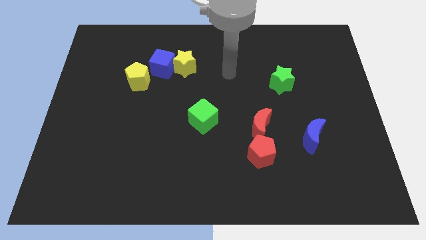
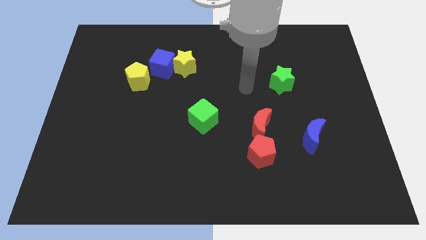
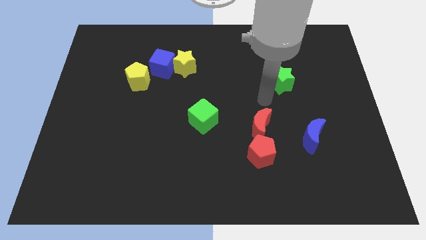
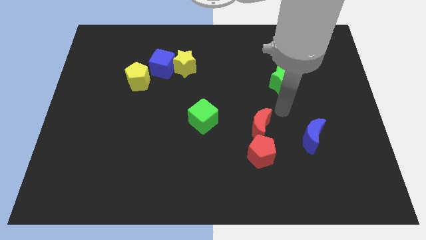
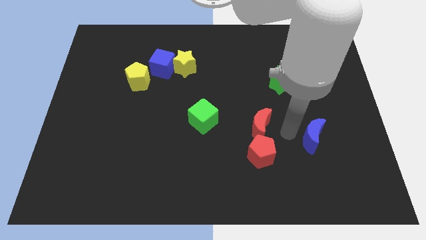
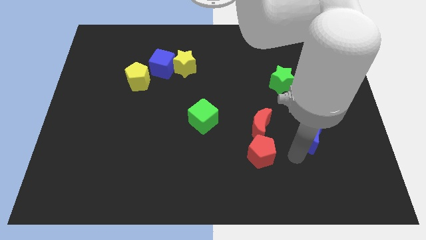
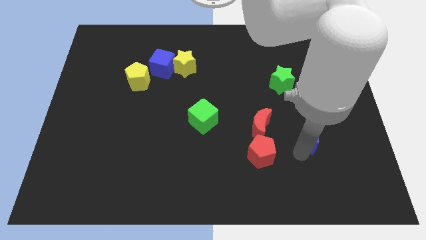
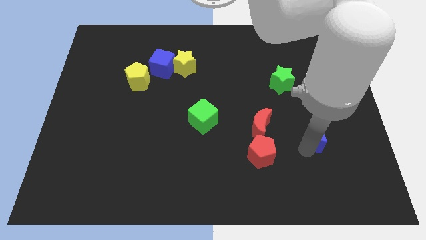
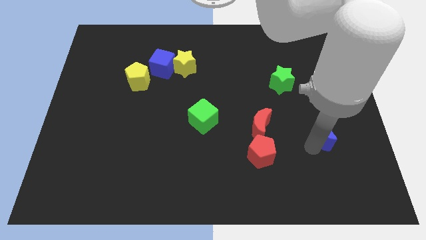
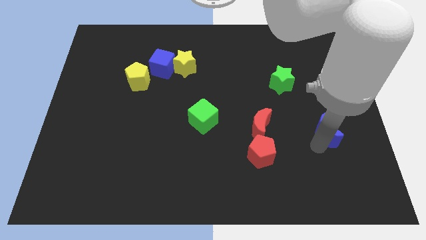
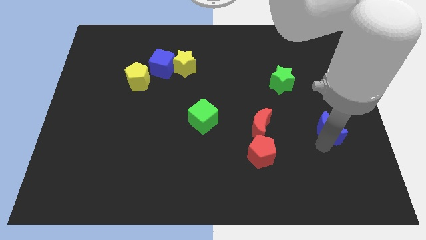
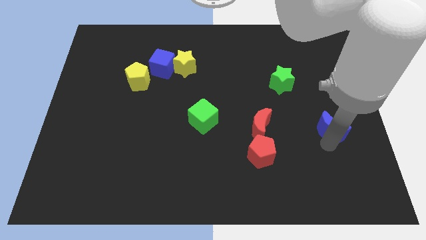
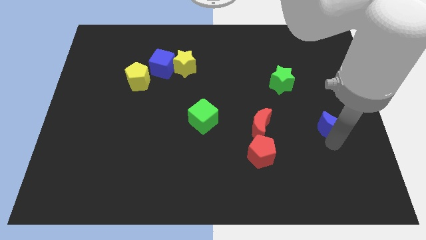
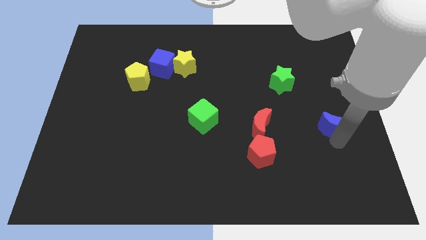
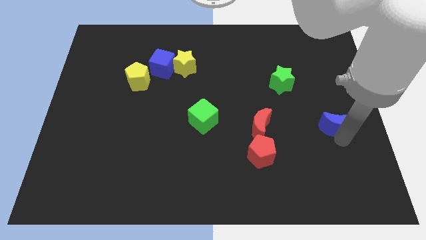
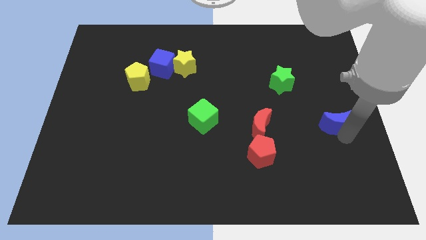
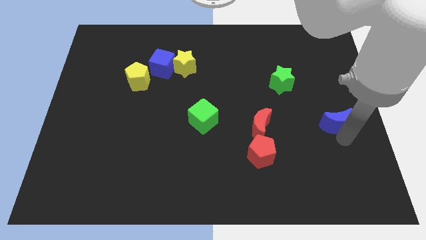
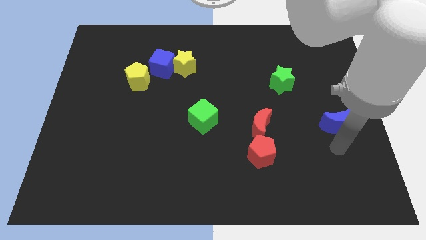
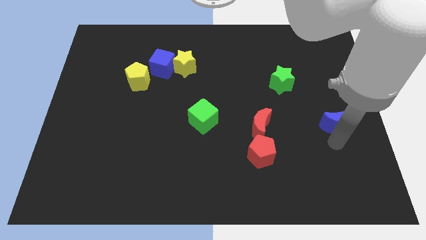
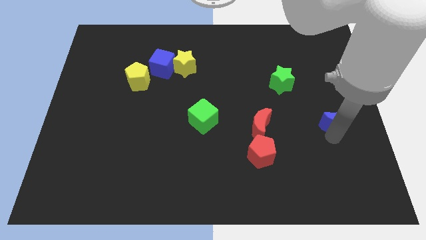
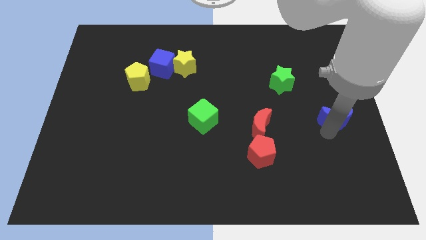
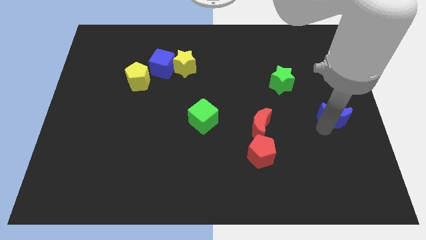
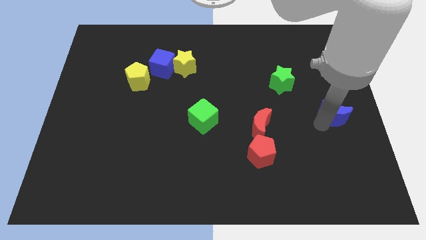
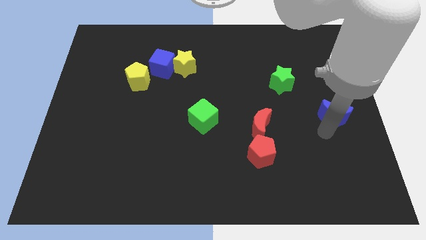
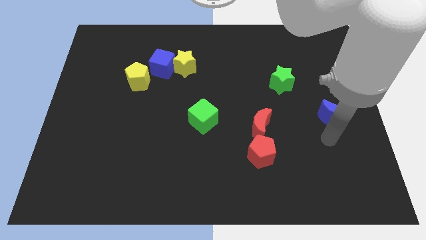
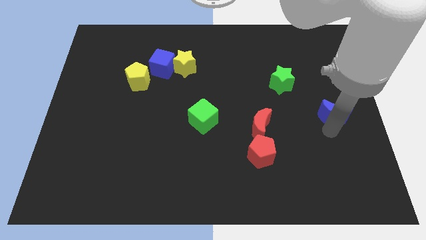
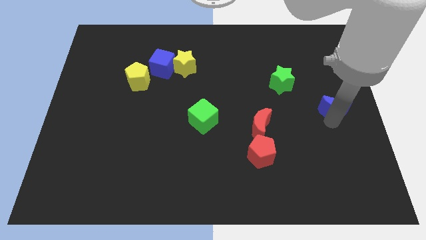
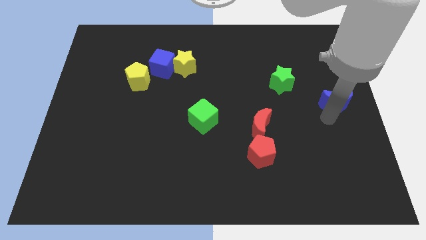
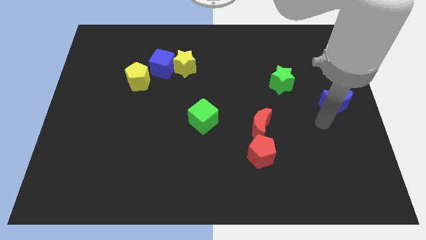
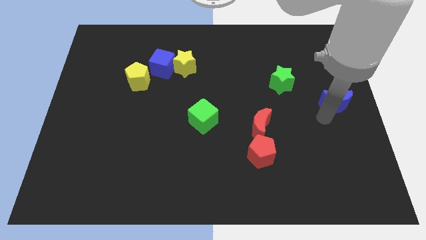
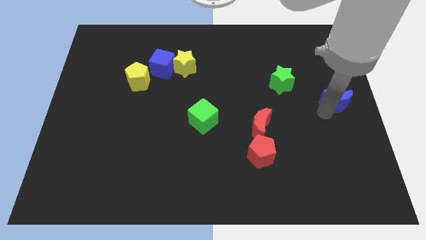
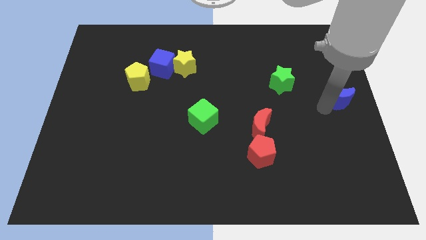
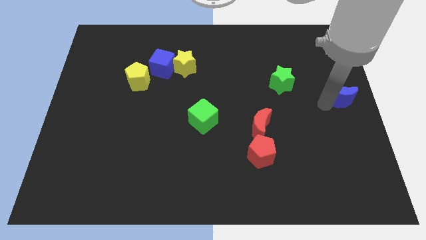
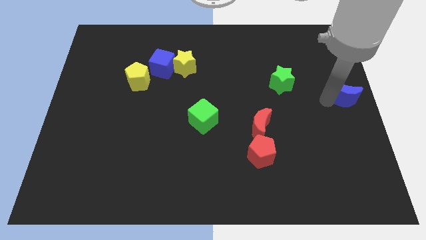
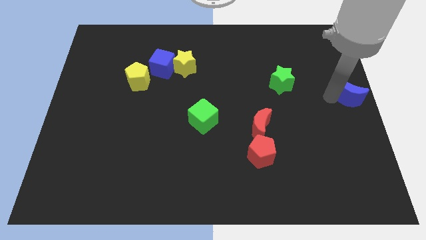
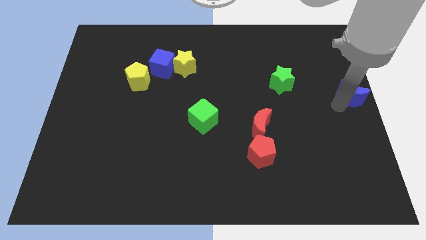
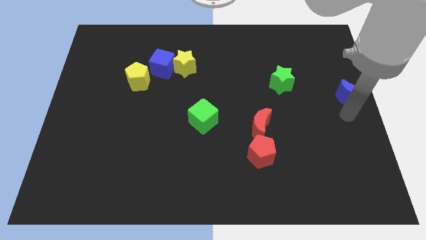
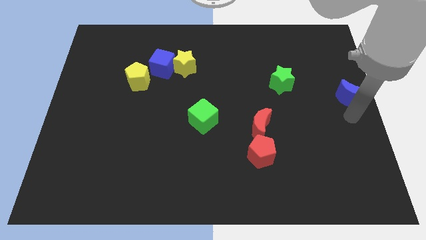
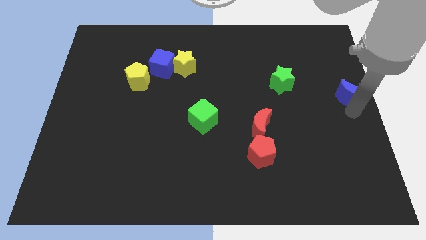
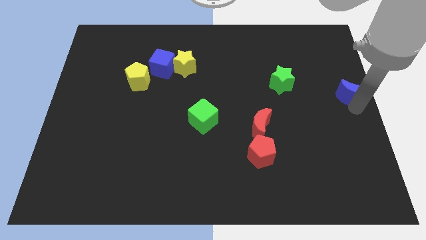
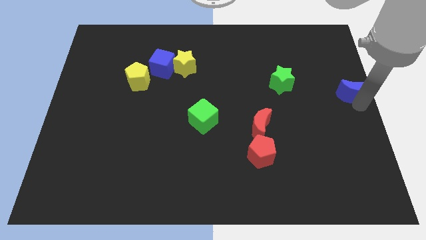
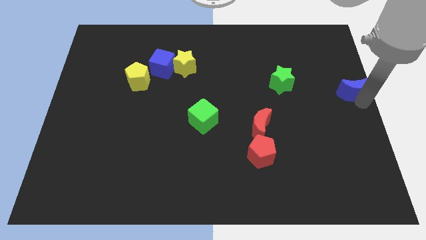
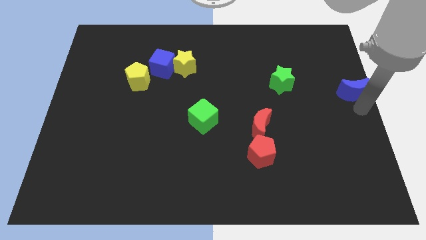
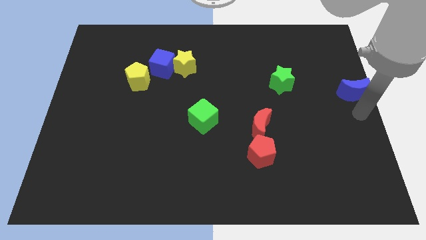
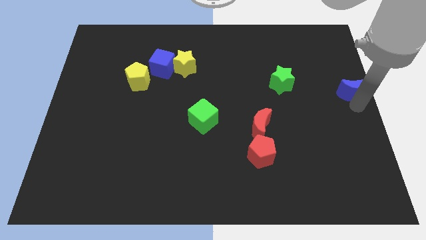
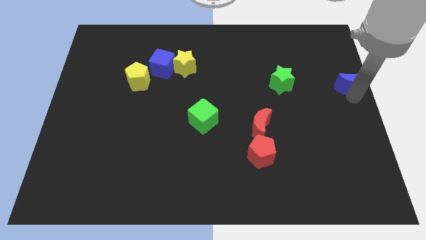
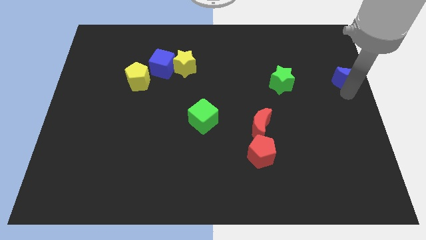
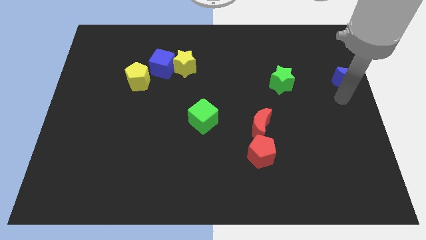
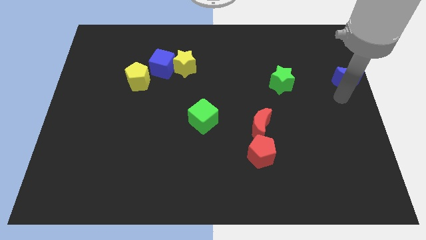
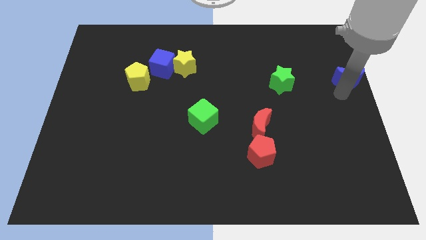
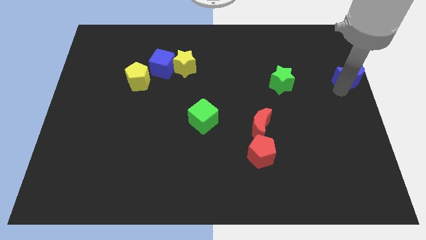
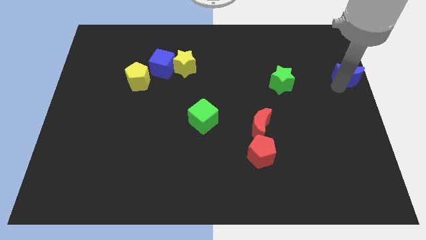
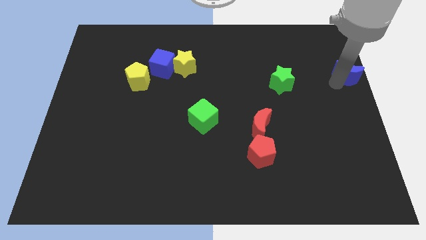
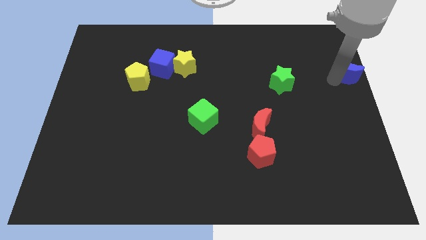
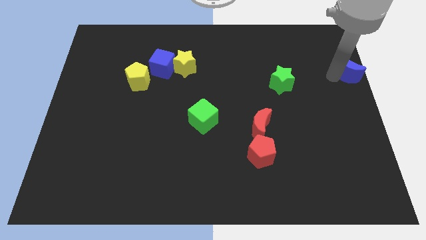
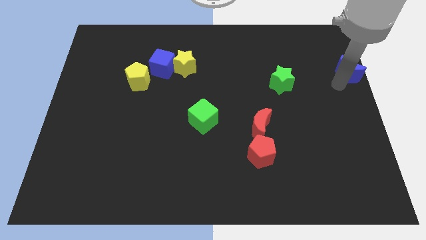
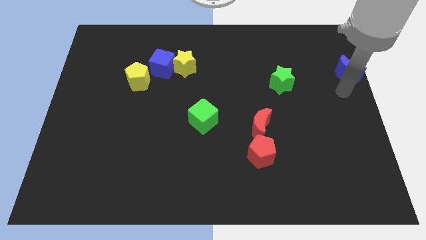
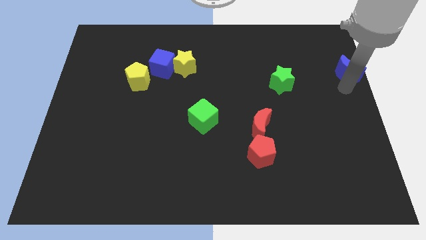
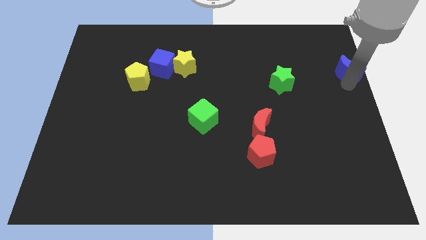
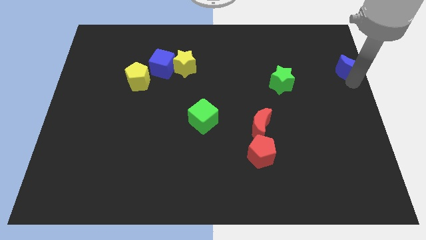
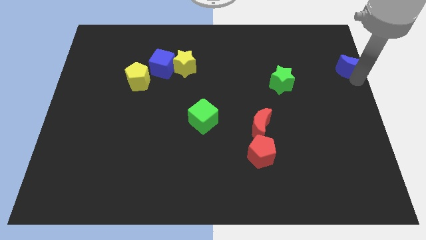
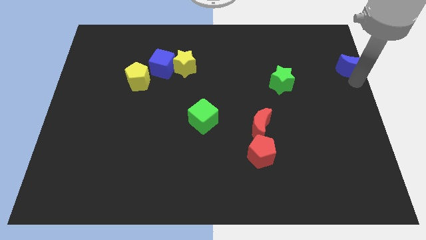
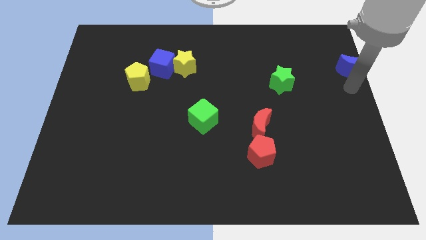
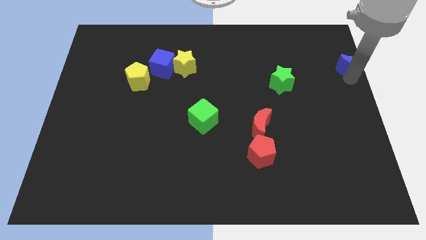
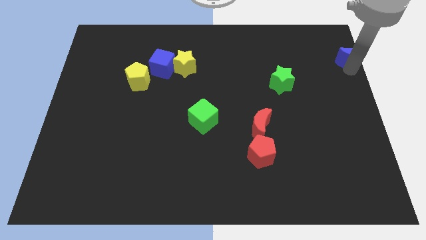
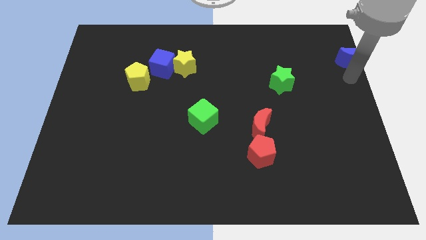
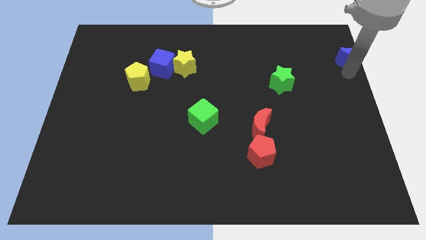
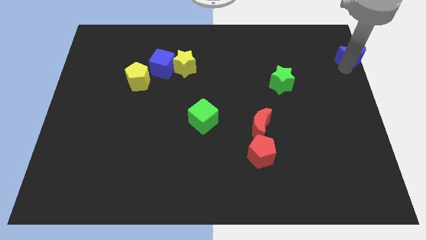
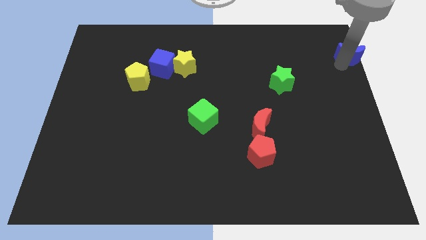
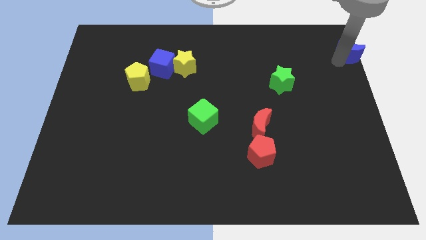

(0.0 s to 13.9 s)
push the blue moon to the top right of the board
